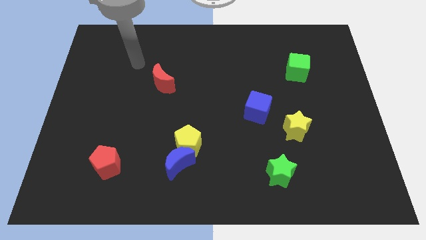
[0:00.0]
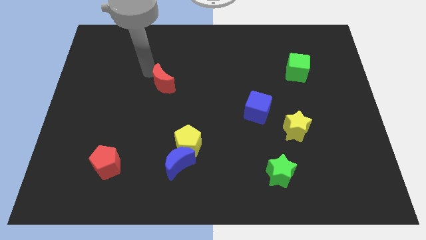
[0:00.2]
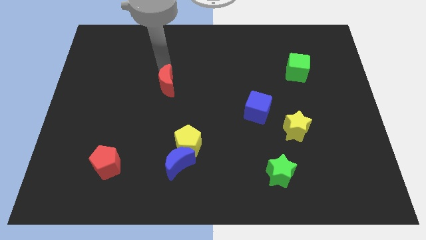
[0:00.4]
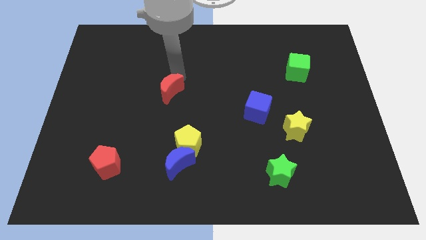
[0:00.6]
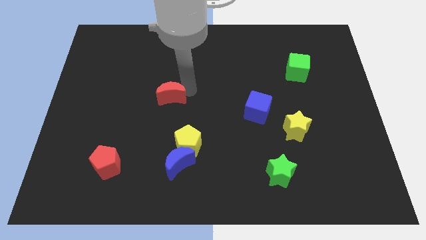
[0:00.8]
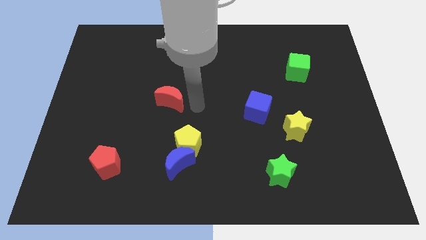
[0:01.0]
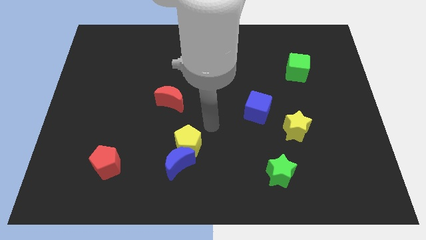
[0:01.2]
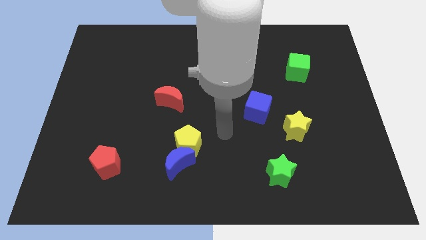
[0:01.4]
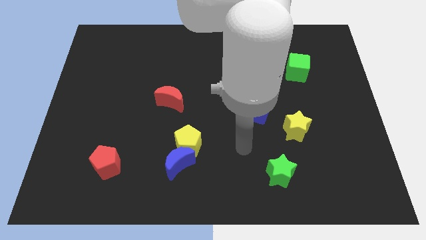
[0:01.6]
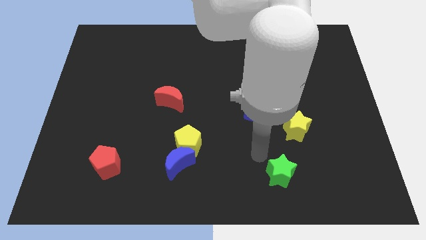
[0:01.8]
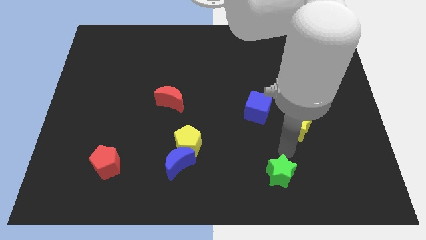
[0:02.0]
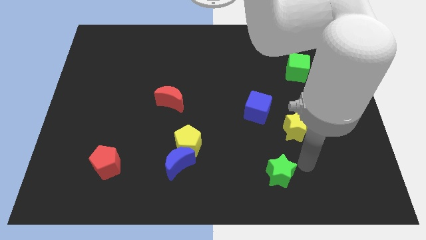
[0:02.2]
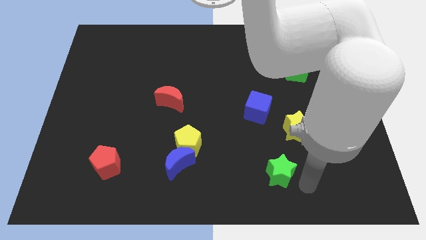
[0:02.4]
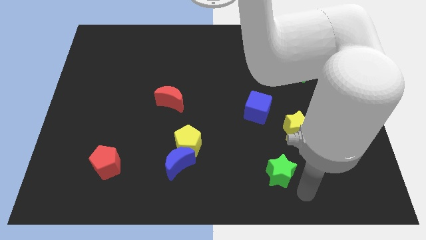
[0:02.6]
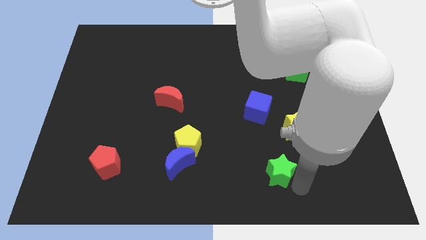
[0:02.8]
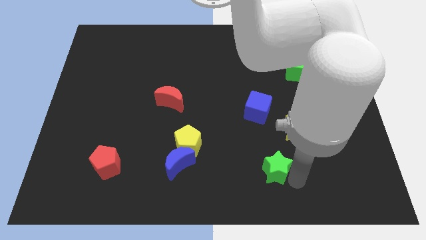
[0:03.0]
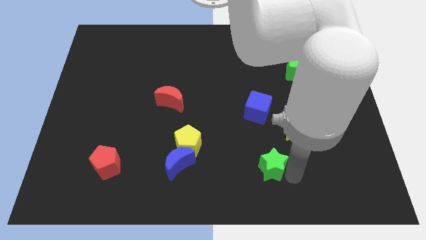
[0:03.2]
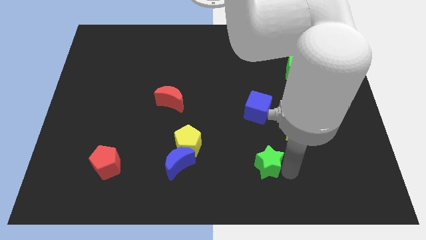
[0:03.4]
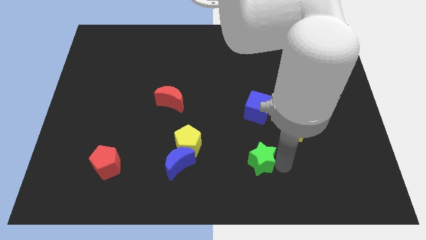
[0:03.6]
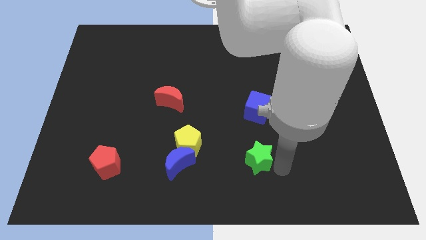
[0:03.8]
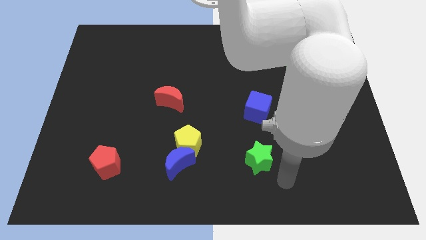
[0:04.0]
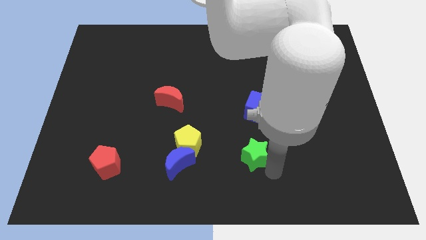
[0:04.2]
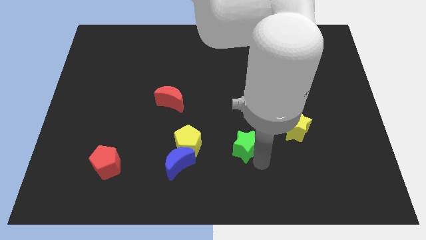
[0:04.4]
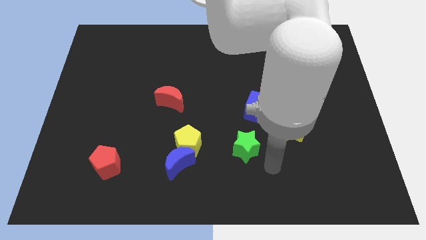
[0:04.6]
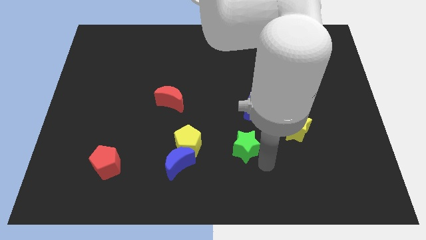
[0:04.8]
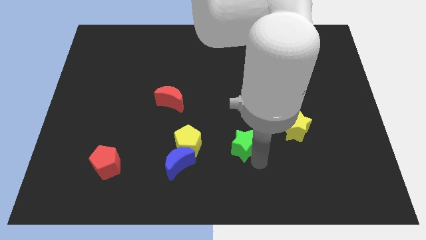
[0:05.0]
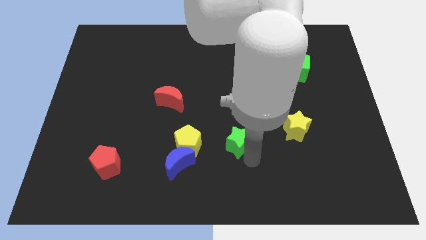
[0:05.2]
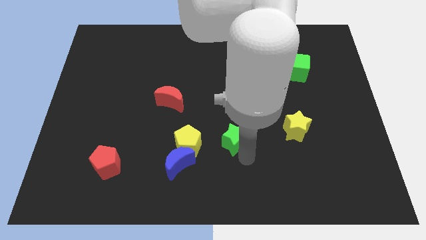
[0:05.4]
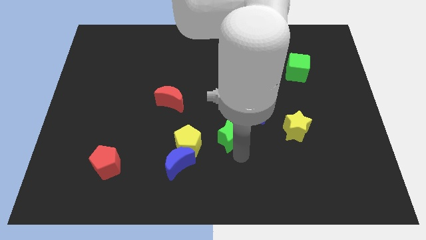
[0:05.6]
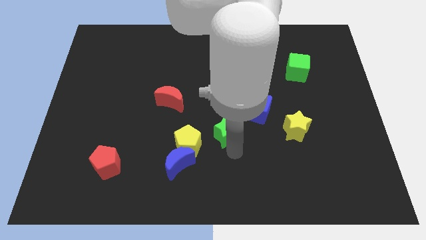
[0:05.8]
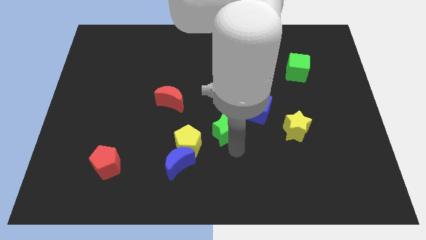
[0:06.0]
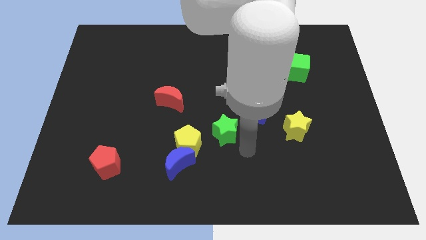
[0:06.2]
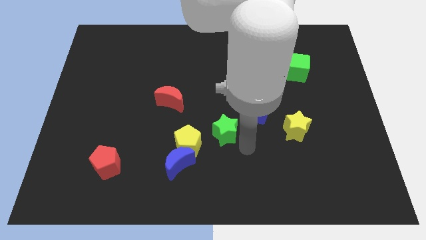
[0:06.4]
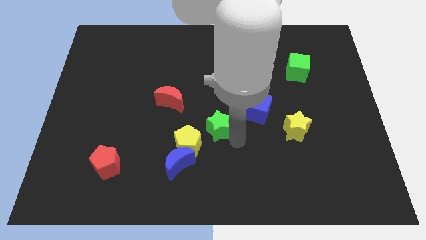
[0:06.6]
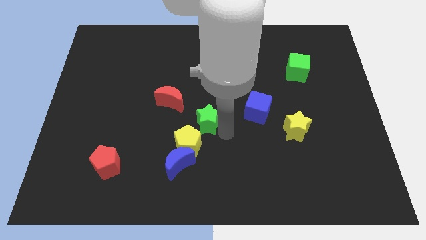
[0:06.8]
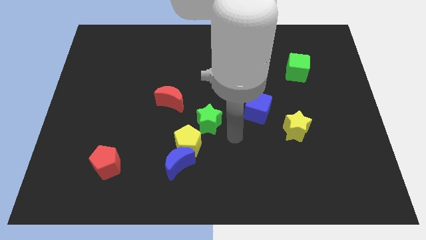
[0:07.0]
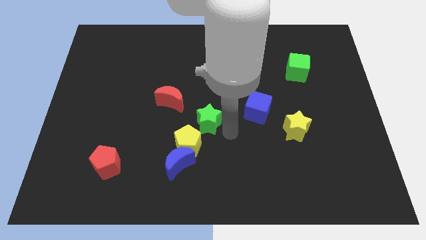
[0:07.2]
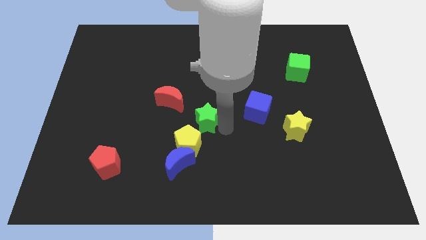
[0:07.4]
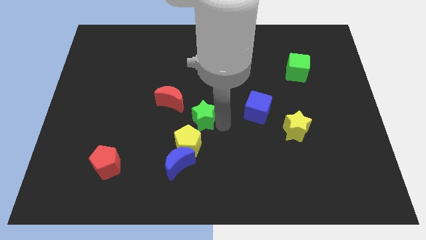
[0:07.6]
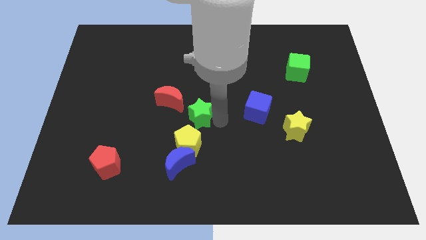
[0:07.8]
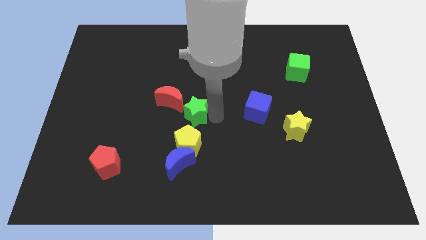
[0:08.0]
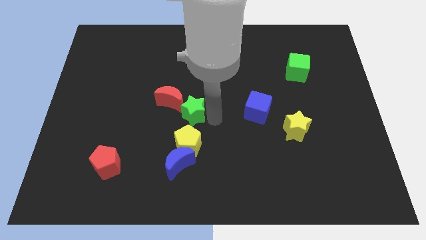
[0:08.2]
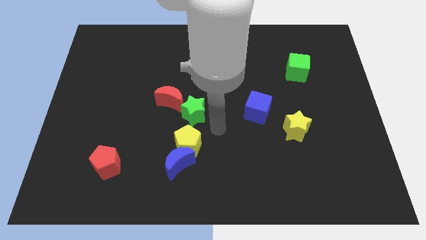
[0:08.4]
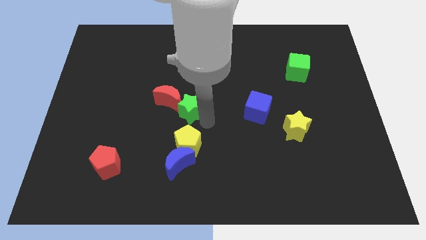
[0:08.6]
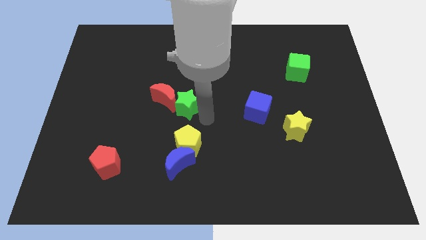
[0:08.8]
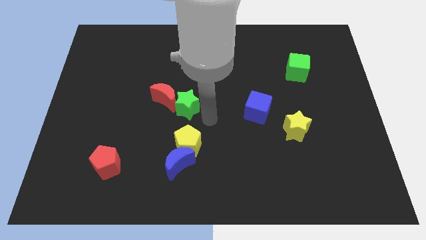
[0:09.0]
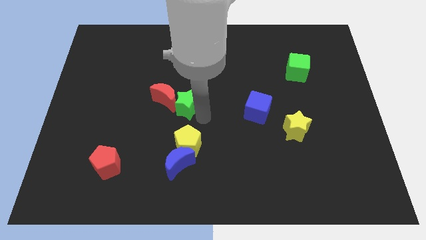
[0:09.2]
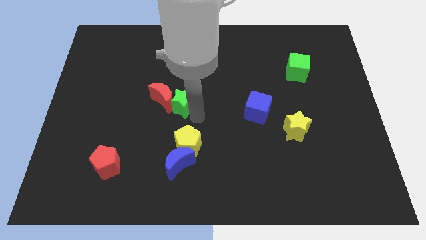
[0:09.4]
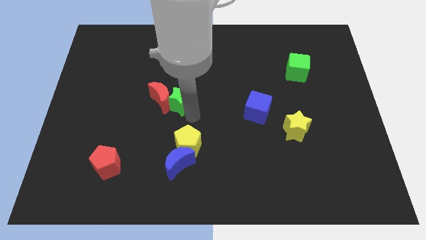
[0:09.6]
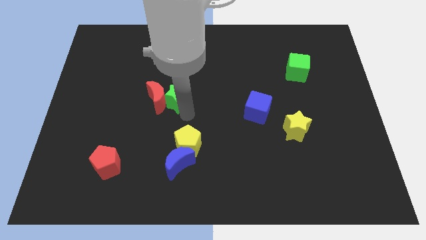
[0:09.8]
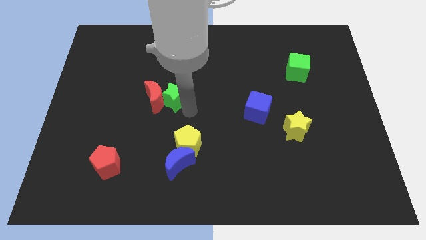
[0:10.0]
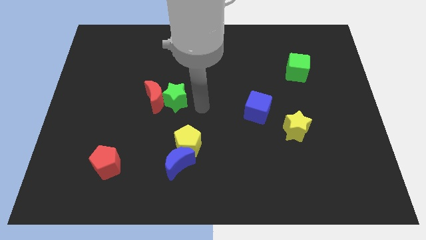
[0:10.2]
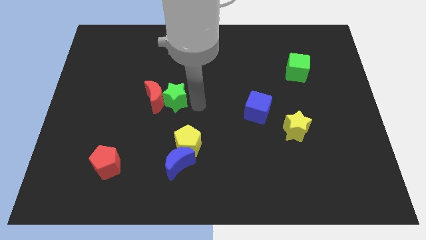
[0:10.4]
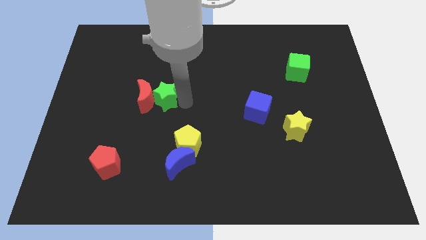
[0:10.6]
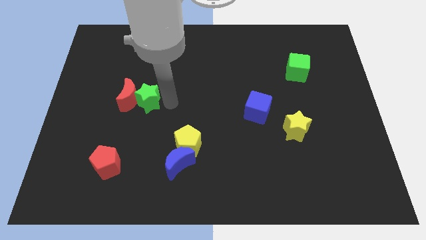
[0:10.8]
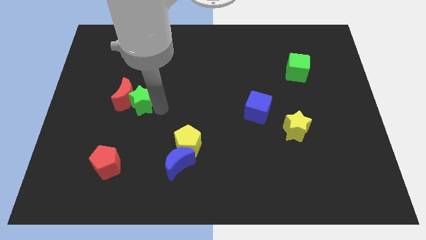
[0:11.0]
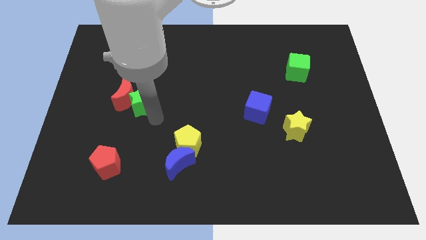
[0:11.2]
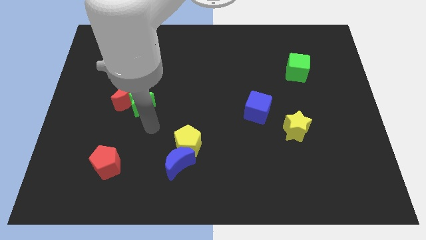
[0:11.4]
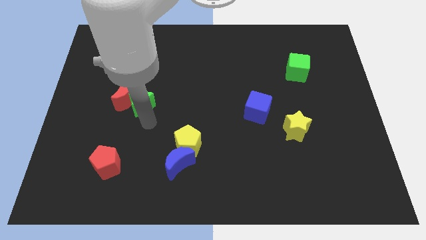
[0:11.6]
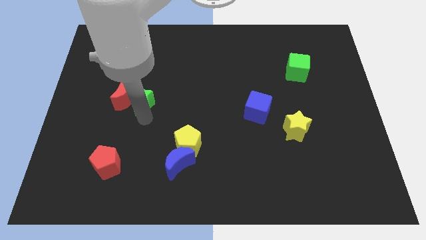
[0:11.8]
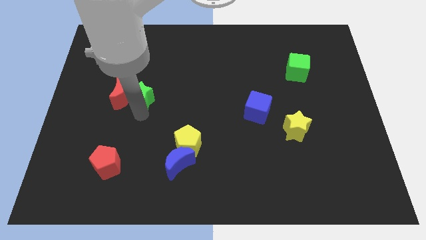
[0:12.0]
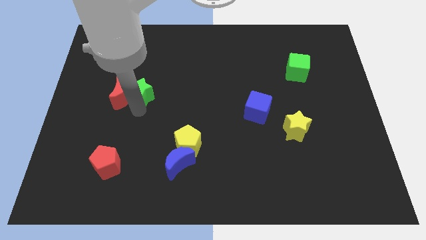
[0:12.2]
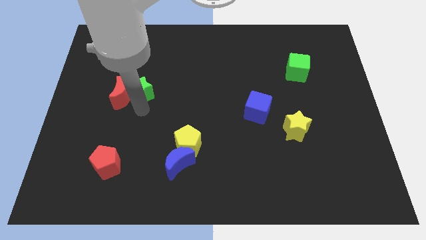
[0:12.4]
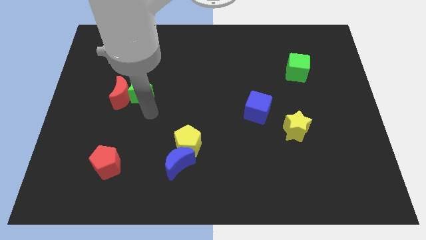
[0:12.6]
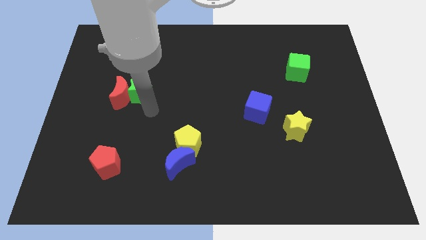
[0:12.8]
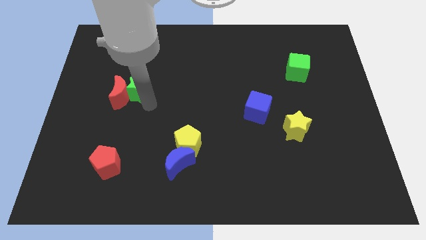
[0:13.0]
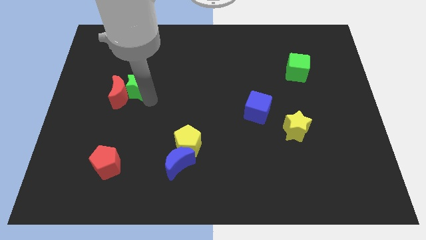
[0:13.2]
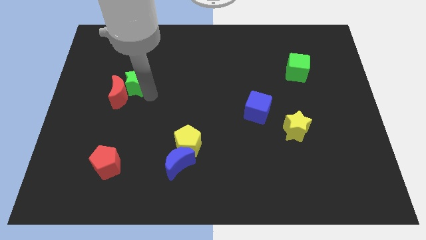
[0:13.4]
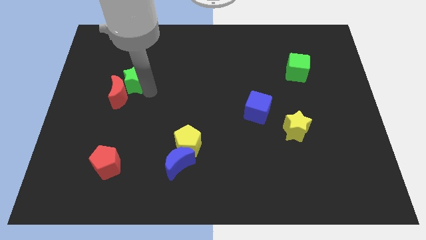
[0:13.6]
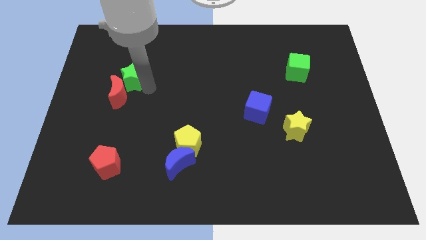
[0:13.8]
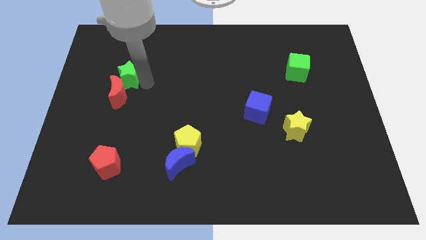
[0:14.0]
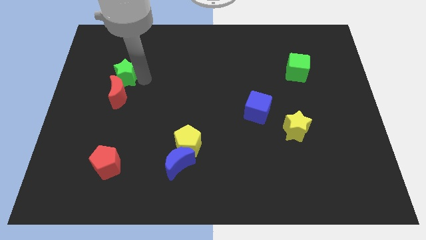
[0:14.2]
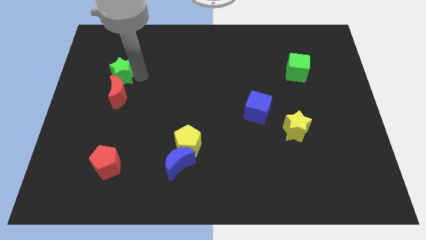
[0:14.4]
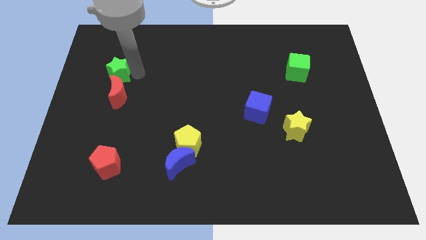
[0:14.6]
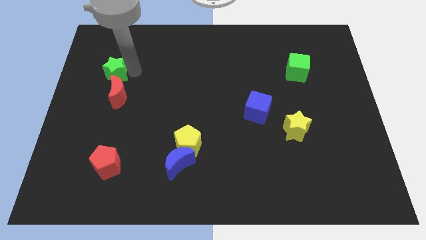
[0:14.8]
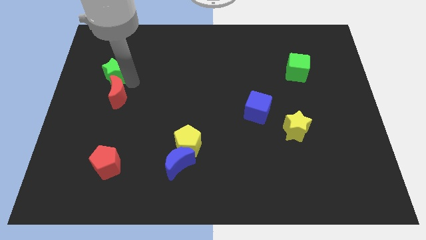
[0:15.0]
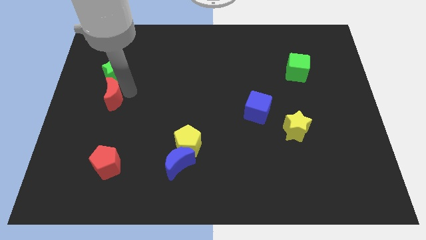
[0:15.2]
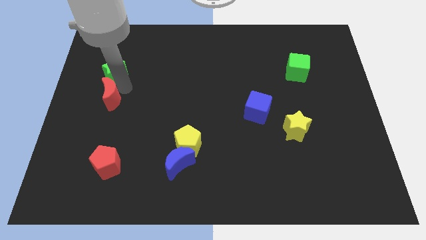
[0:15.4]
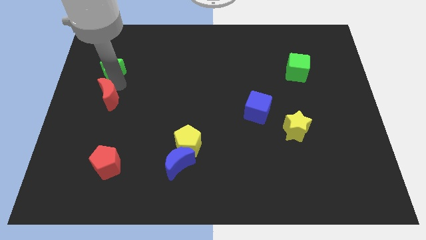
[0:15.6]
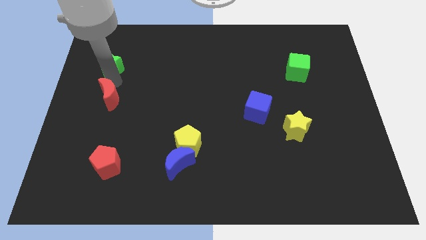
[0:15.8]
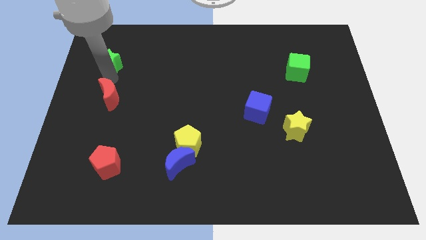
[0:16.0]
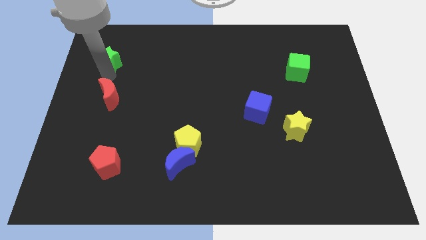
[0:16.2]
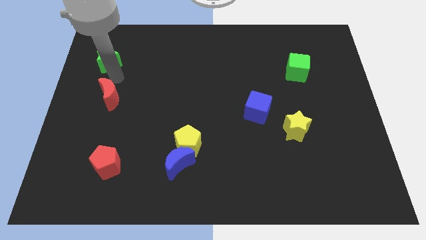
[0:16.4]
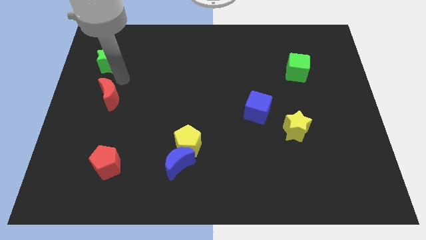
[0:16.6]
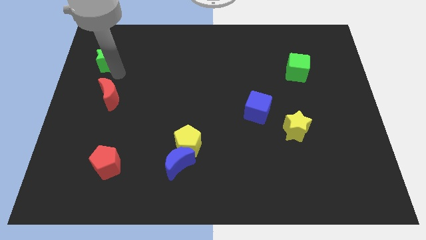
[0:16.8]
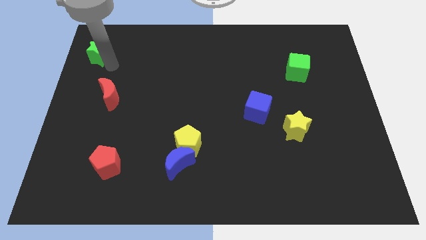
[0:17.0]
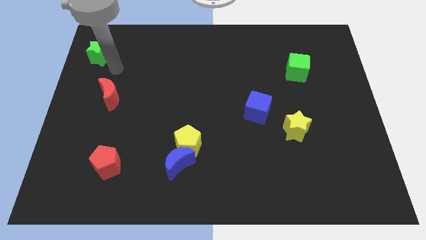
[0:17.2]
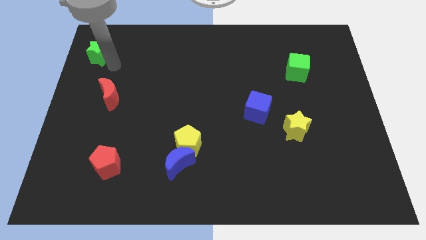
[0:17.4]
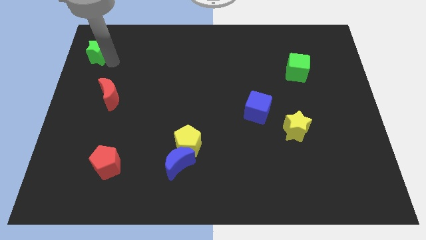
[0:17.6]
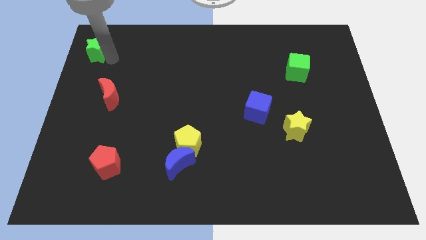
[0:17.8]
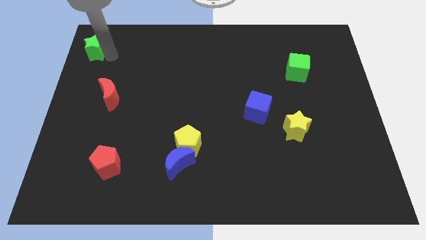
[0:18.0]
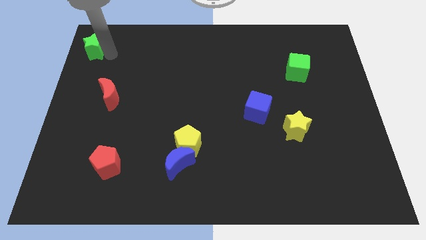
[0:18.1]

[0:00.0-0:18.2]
push the green star to the top left corner
